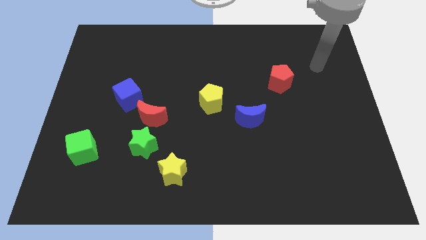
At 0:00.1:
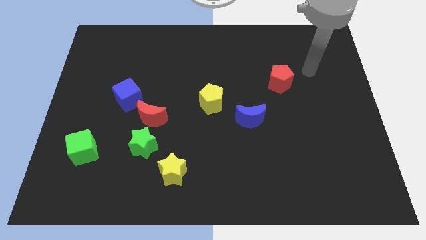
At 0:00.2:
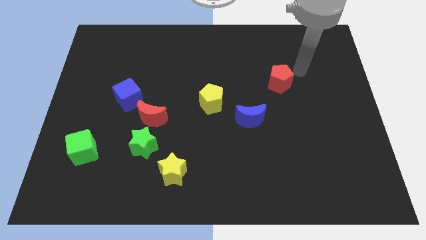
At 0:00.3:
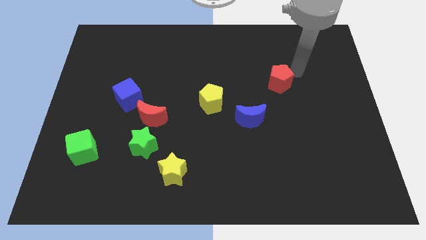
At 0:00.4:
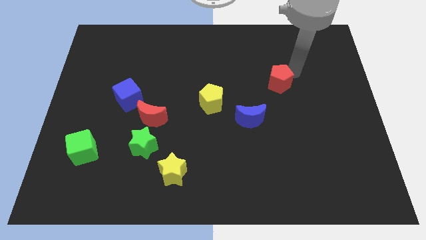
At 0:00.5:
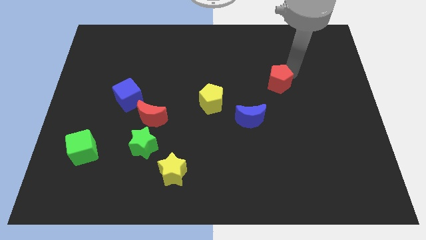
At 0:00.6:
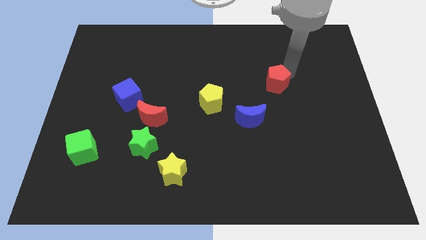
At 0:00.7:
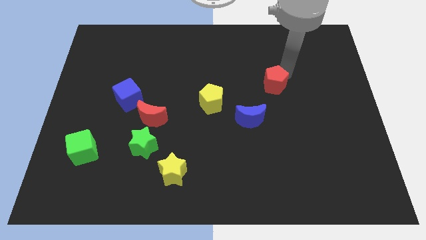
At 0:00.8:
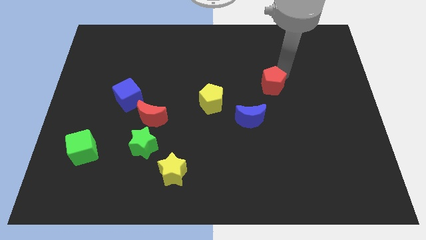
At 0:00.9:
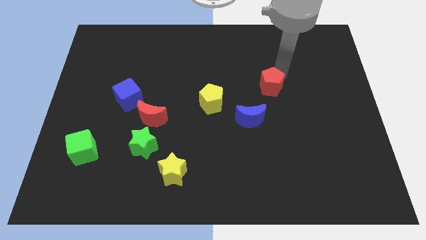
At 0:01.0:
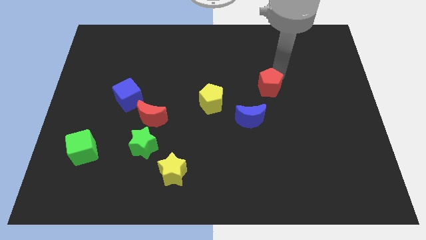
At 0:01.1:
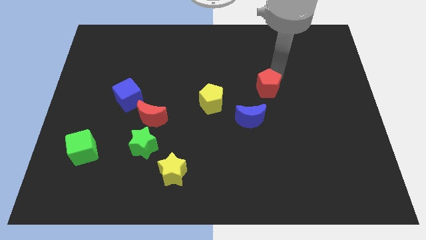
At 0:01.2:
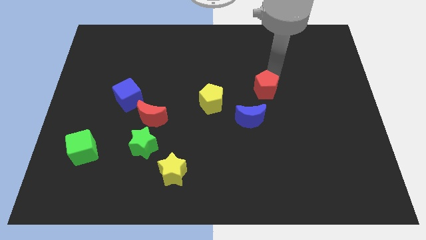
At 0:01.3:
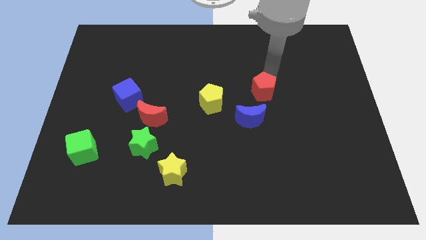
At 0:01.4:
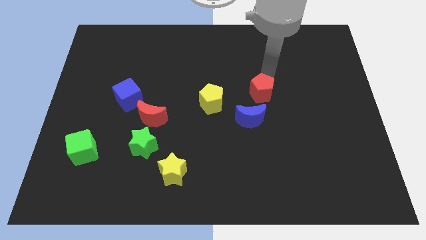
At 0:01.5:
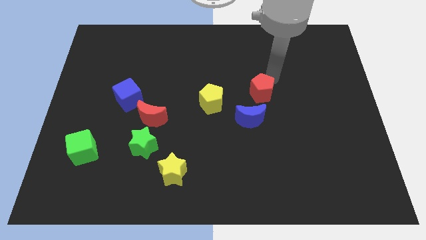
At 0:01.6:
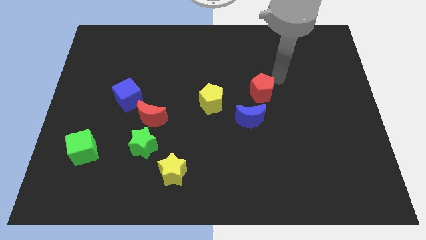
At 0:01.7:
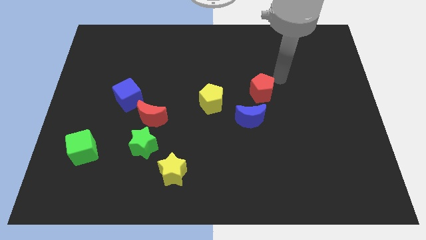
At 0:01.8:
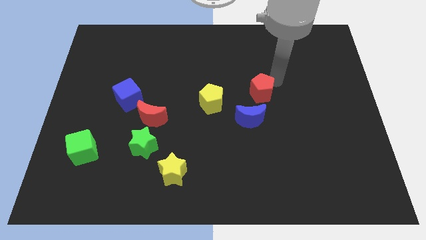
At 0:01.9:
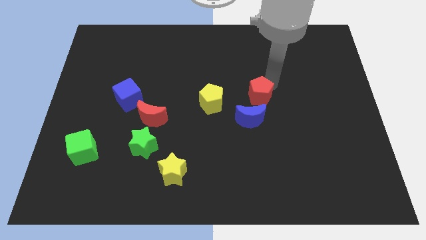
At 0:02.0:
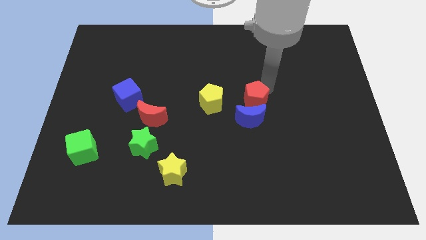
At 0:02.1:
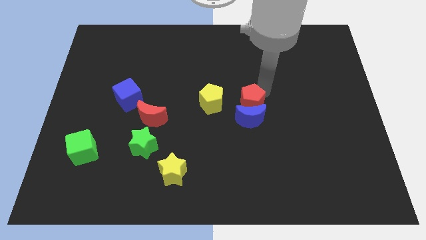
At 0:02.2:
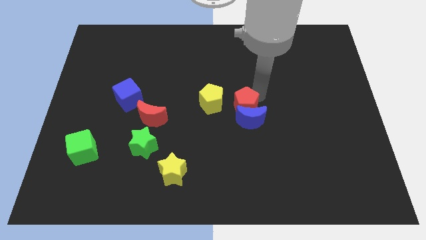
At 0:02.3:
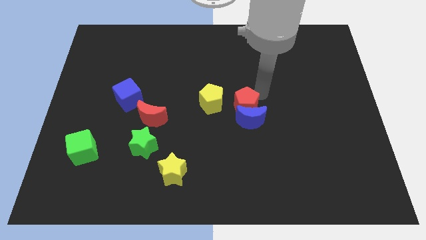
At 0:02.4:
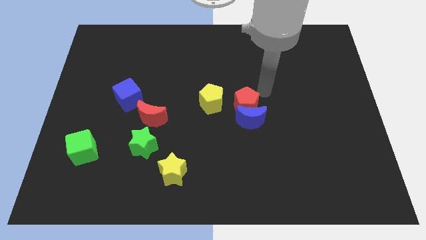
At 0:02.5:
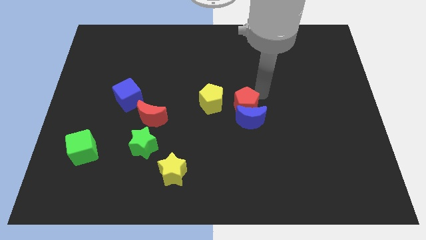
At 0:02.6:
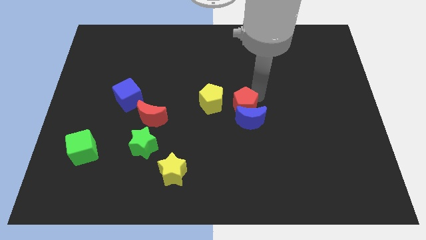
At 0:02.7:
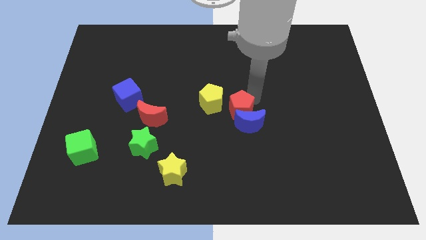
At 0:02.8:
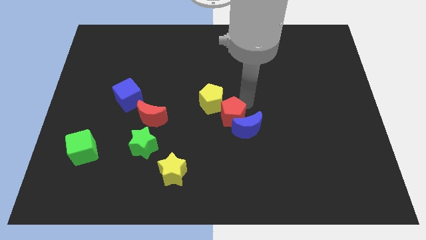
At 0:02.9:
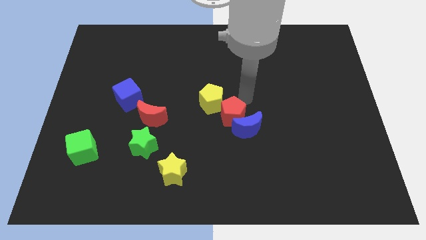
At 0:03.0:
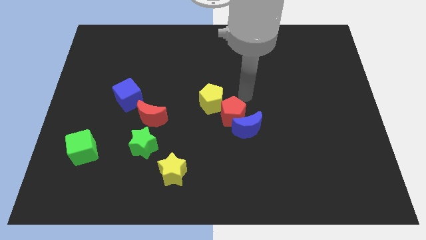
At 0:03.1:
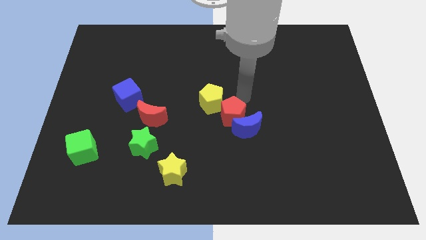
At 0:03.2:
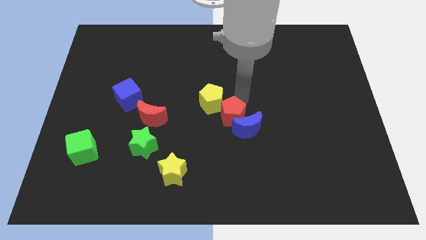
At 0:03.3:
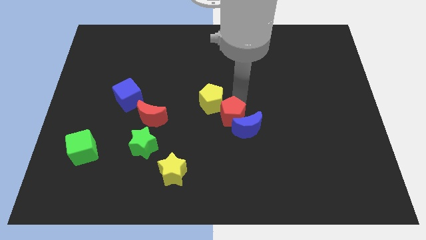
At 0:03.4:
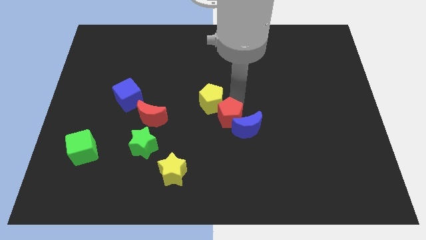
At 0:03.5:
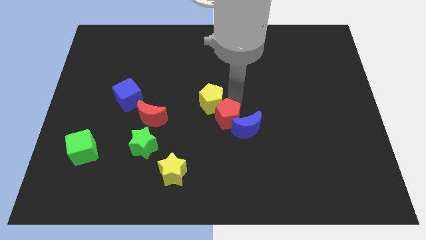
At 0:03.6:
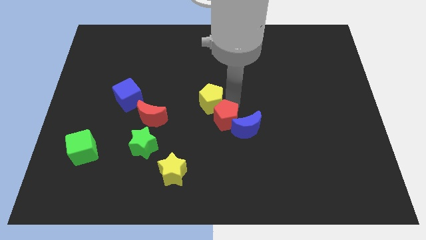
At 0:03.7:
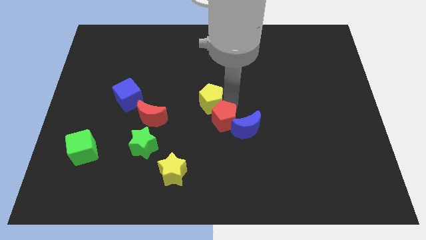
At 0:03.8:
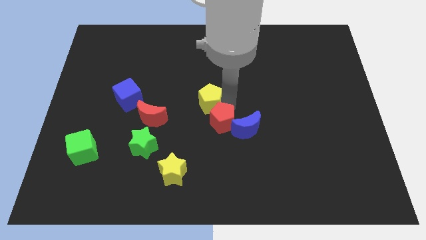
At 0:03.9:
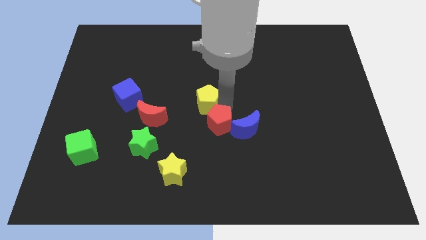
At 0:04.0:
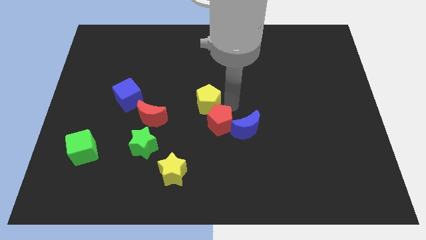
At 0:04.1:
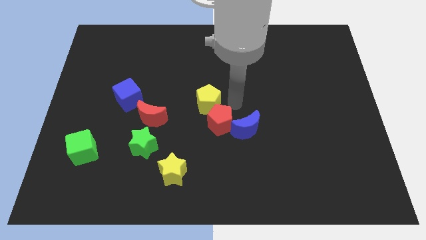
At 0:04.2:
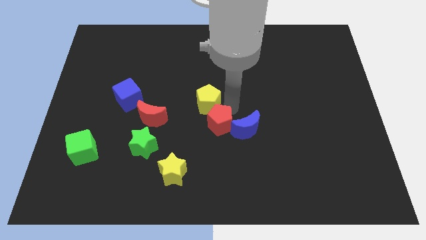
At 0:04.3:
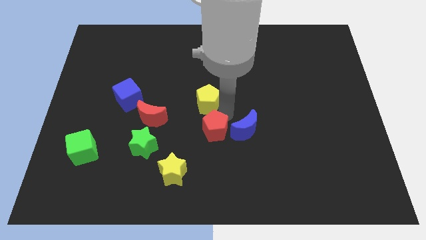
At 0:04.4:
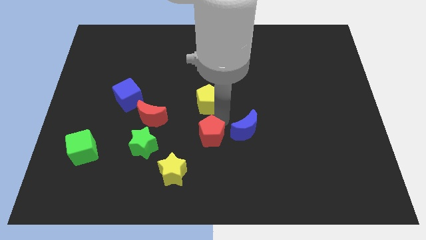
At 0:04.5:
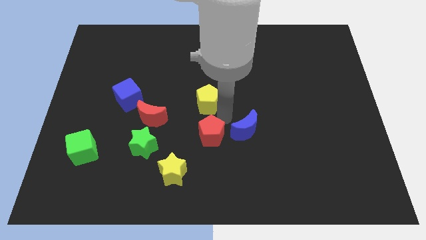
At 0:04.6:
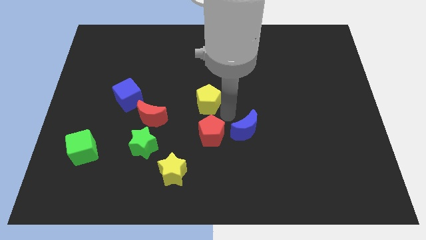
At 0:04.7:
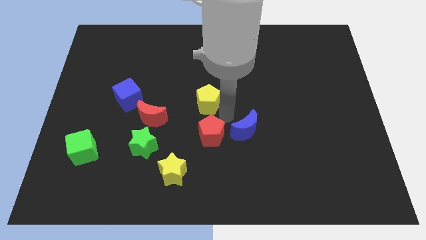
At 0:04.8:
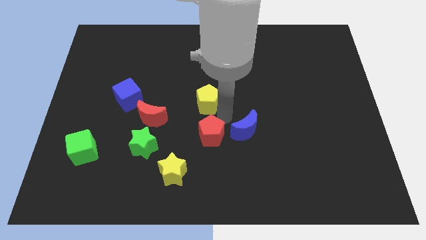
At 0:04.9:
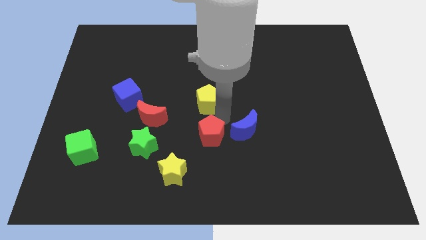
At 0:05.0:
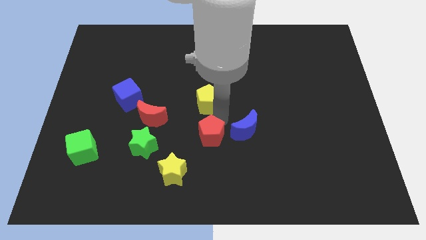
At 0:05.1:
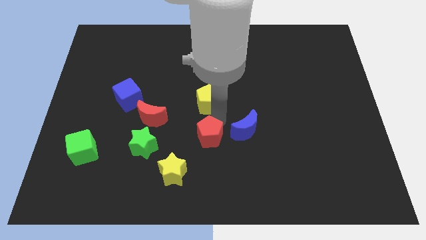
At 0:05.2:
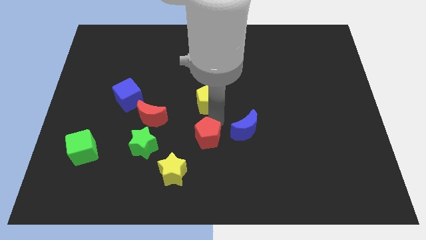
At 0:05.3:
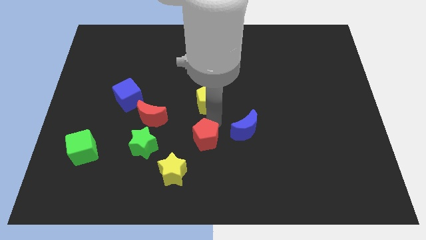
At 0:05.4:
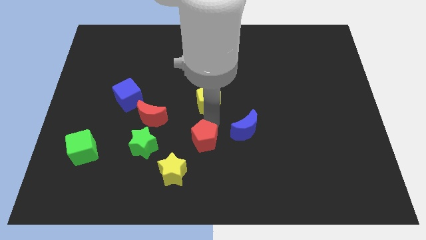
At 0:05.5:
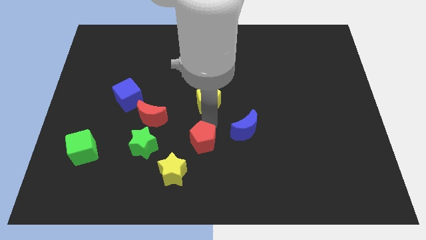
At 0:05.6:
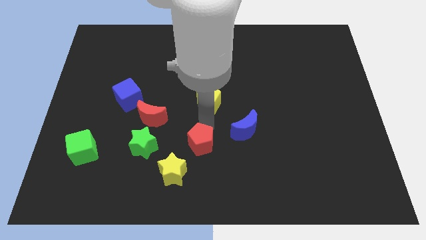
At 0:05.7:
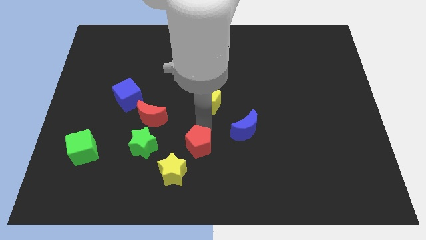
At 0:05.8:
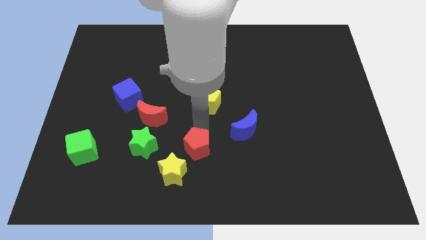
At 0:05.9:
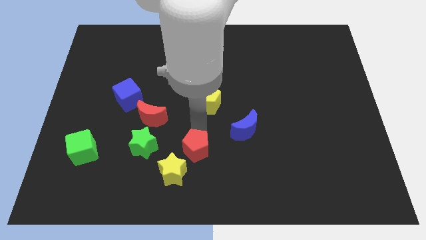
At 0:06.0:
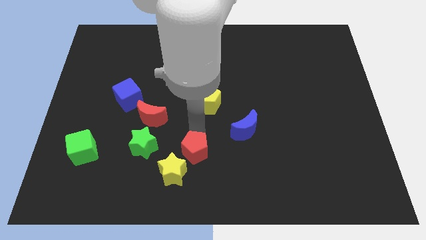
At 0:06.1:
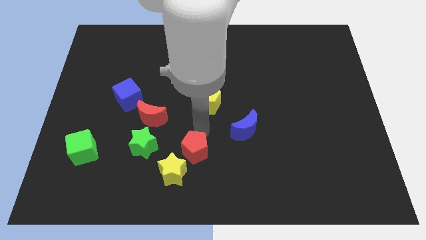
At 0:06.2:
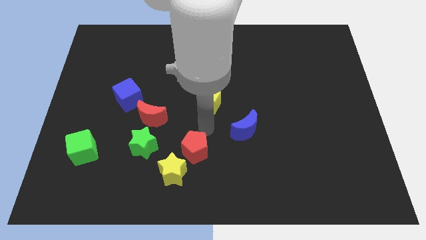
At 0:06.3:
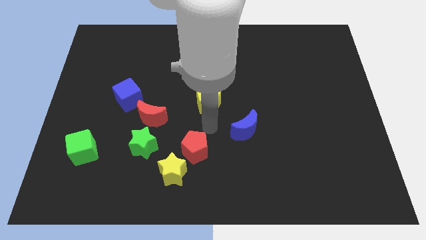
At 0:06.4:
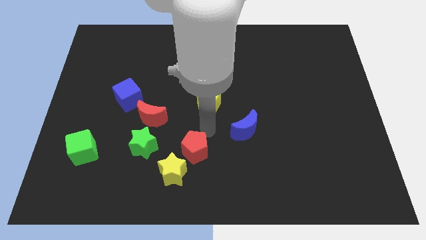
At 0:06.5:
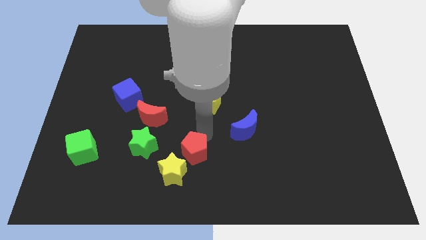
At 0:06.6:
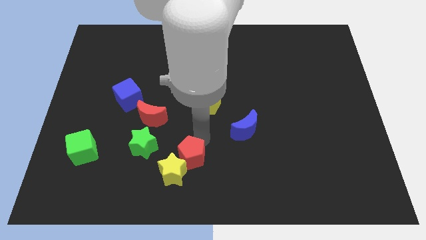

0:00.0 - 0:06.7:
move the red pentagon to the yellow star

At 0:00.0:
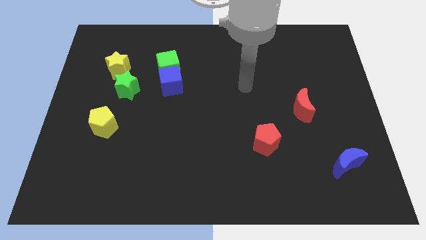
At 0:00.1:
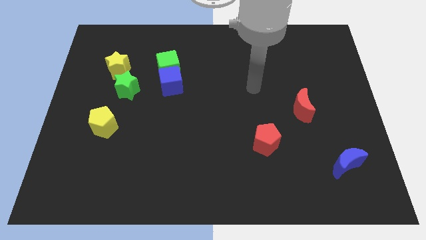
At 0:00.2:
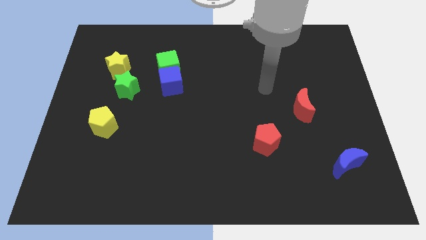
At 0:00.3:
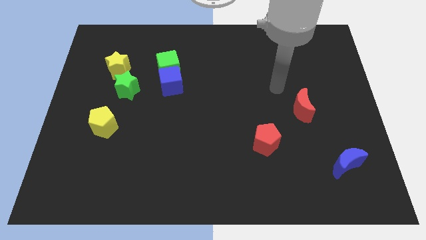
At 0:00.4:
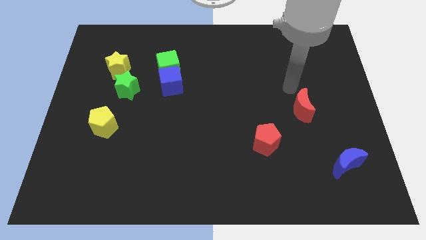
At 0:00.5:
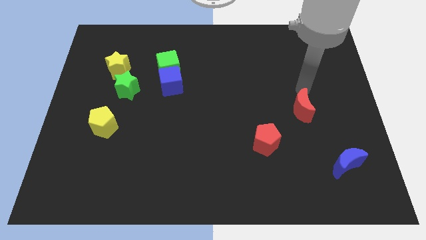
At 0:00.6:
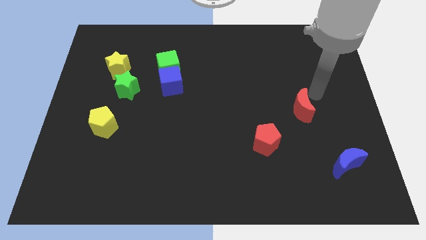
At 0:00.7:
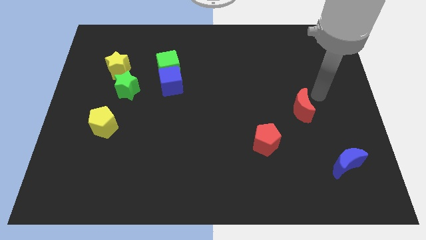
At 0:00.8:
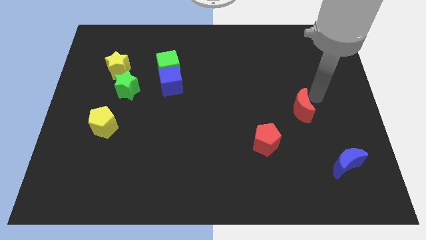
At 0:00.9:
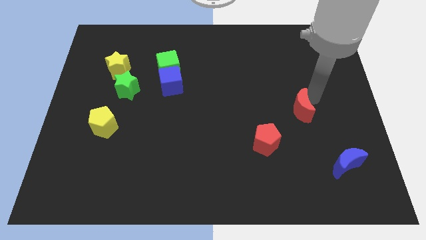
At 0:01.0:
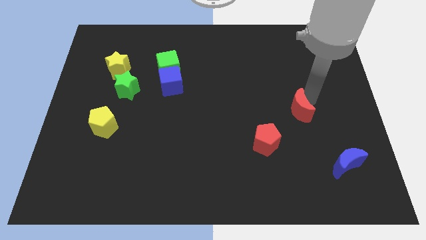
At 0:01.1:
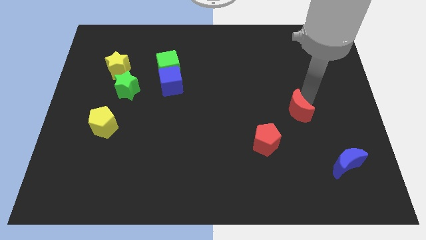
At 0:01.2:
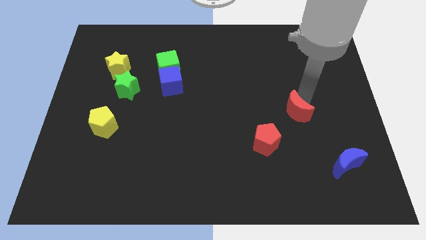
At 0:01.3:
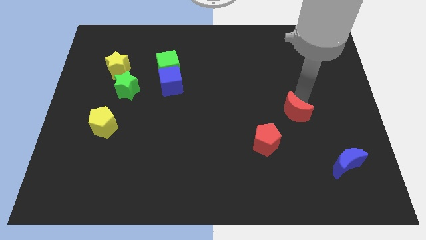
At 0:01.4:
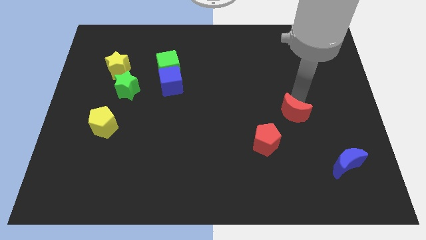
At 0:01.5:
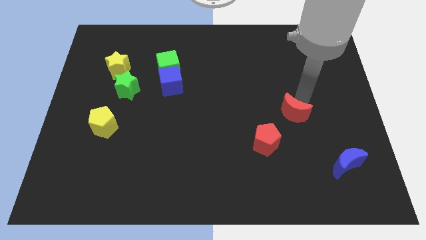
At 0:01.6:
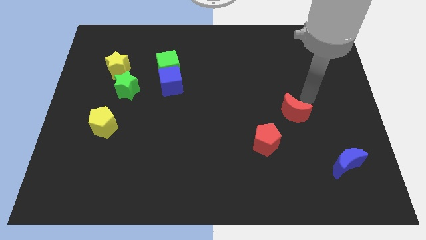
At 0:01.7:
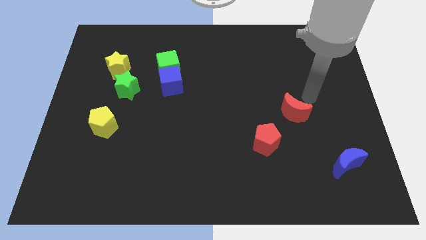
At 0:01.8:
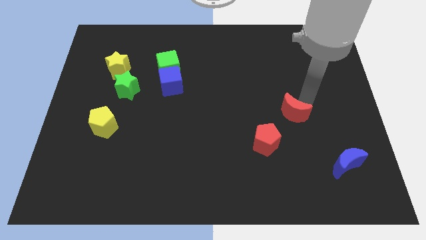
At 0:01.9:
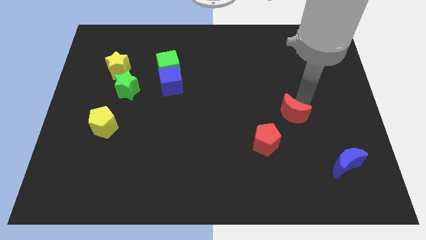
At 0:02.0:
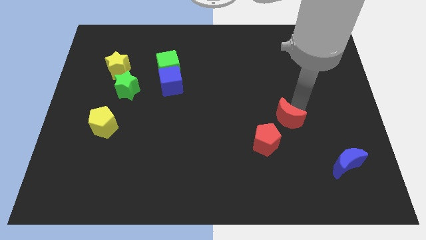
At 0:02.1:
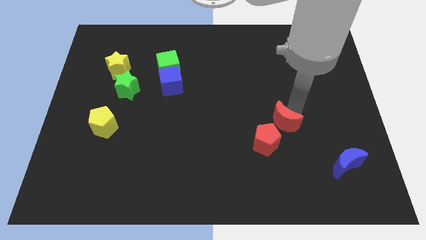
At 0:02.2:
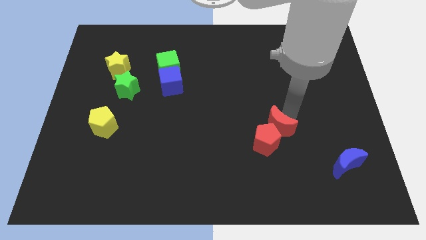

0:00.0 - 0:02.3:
slide the red moon to the red pentagon
